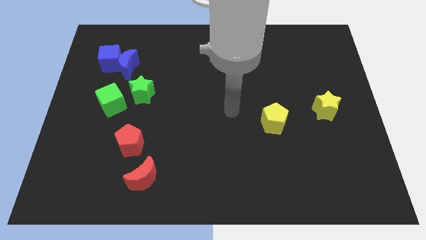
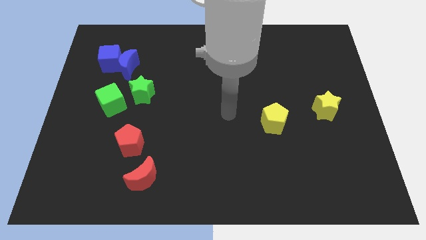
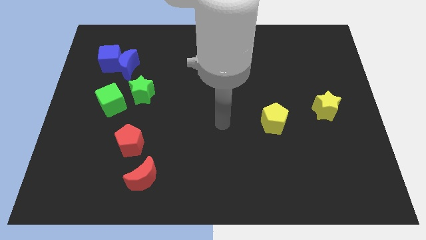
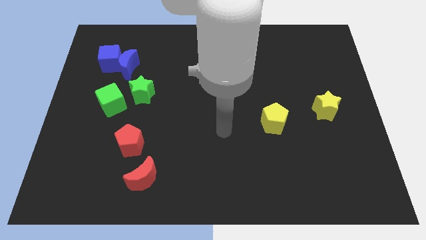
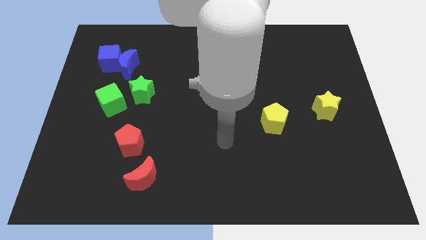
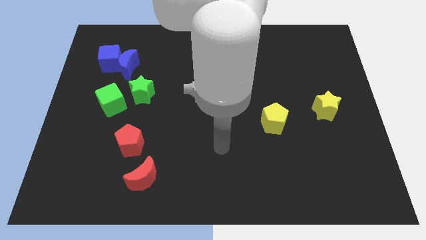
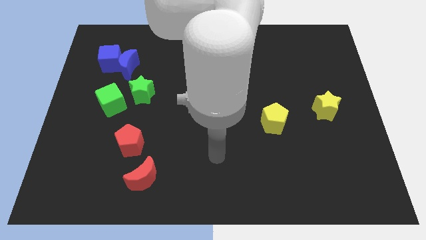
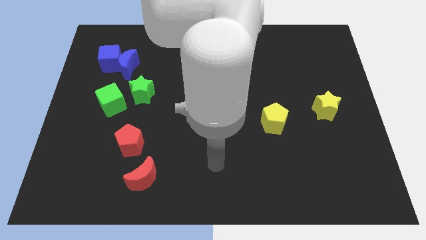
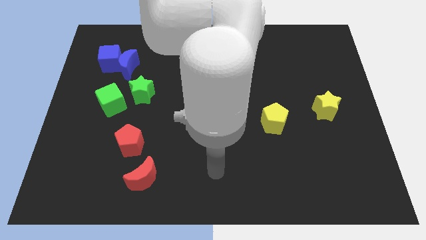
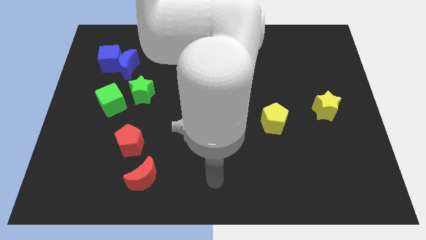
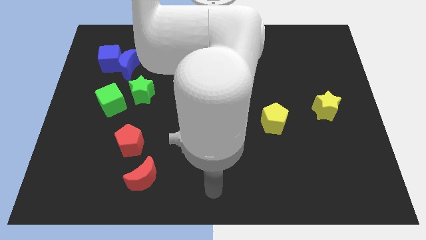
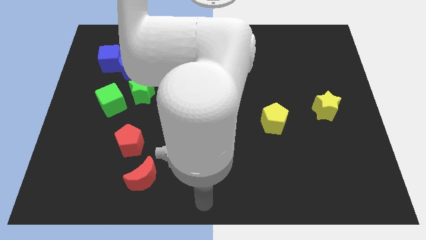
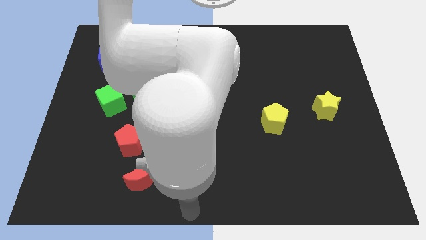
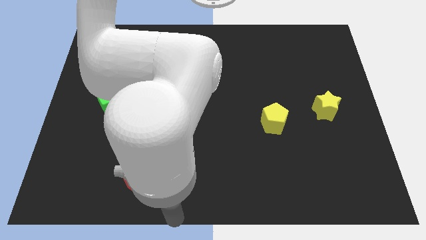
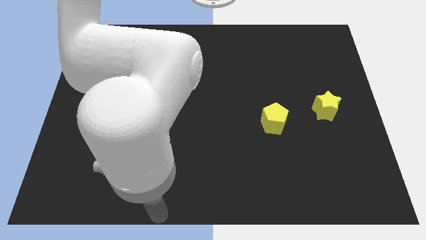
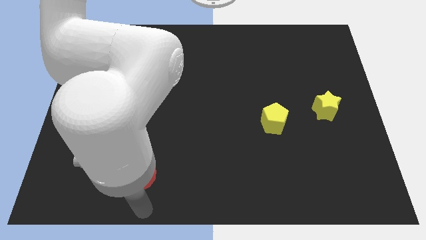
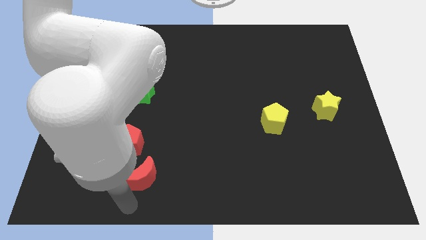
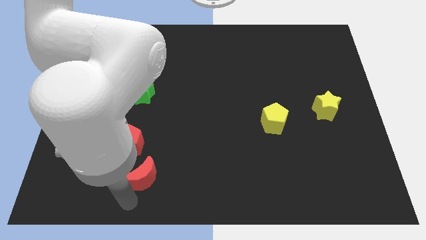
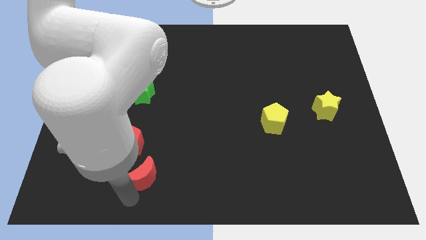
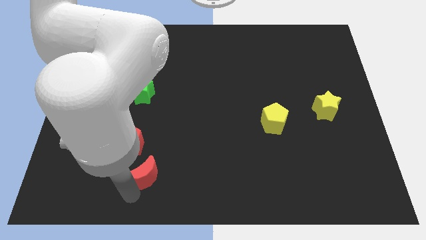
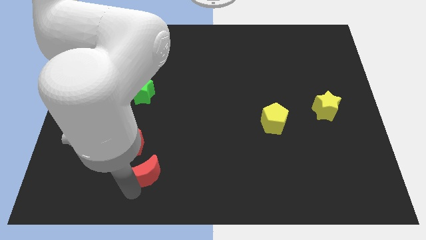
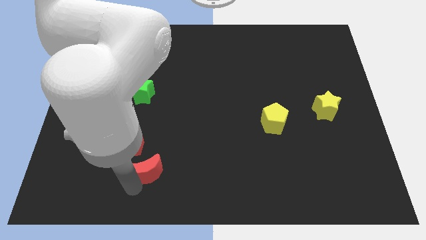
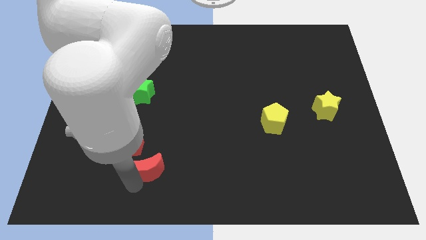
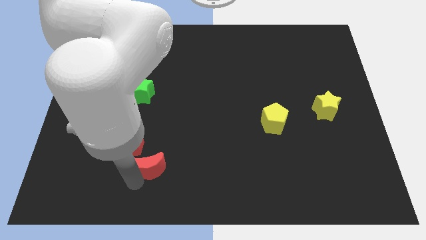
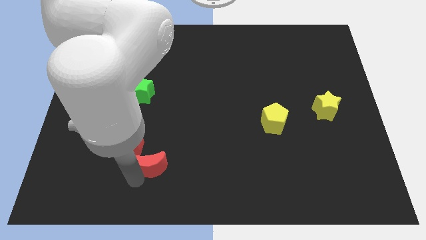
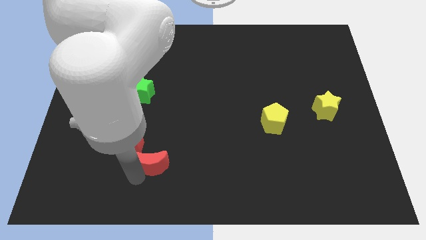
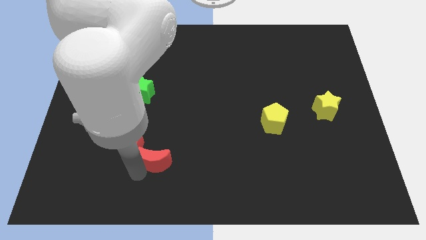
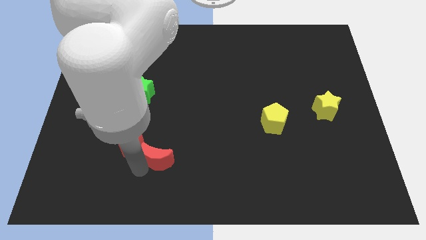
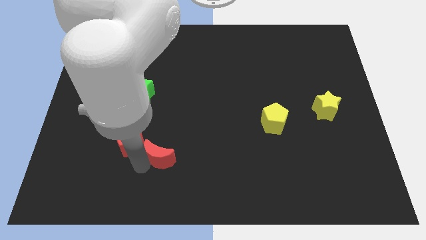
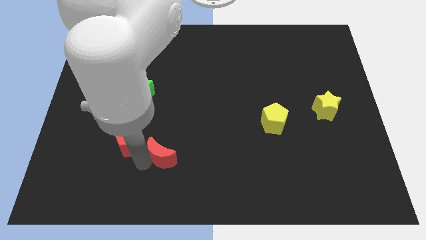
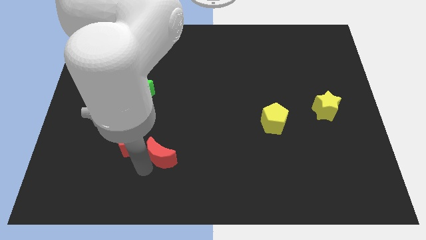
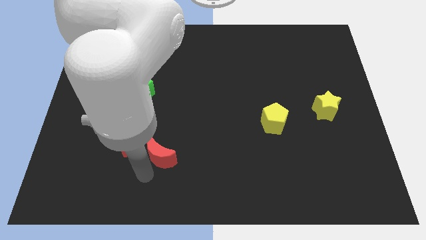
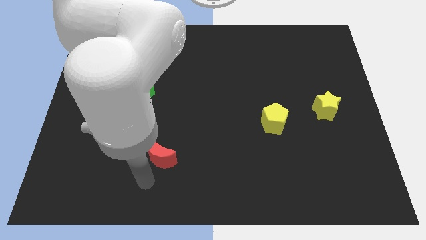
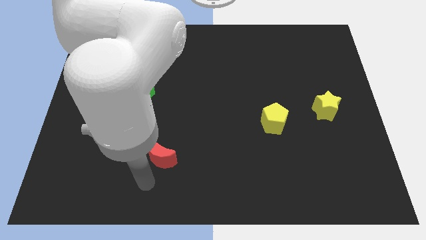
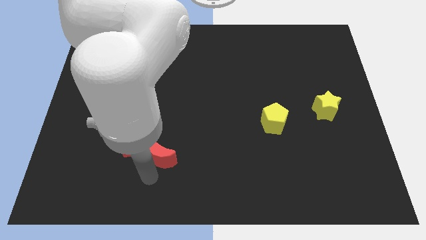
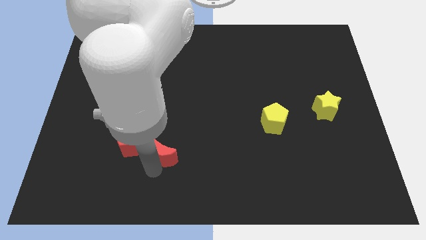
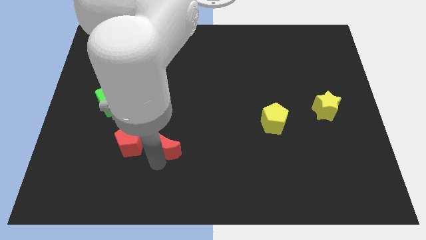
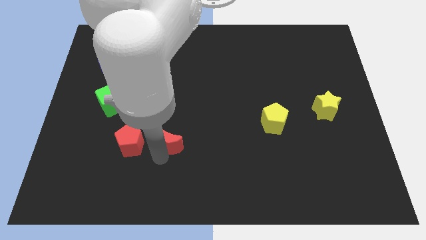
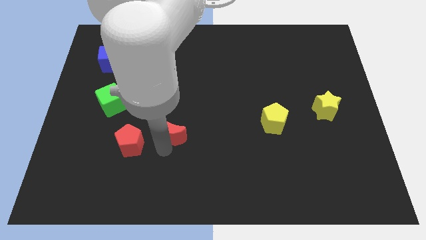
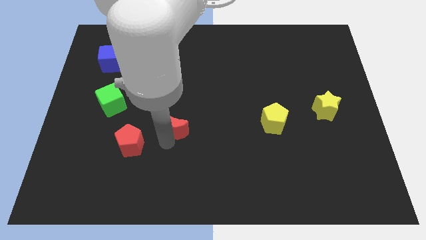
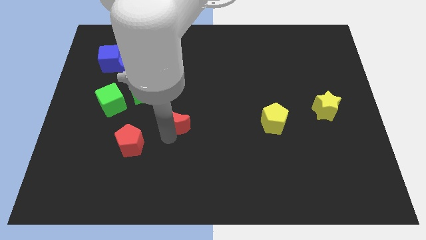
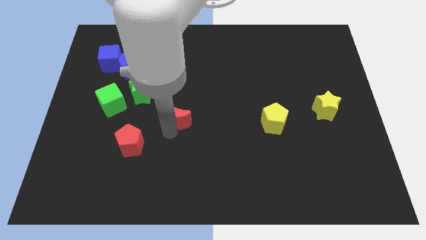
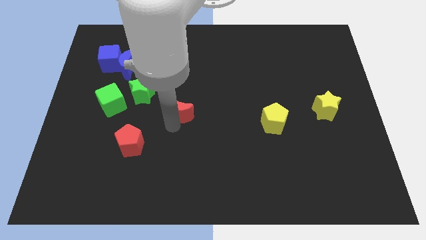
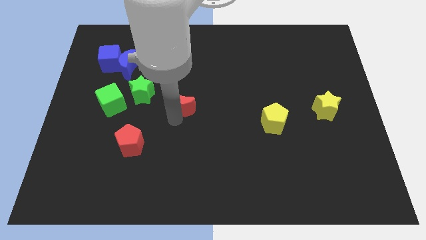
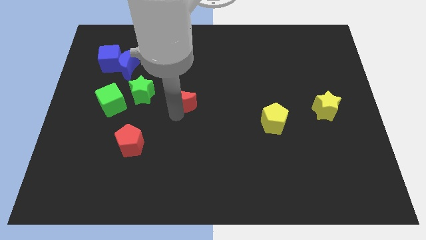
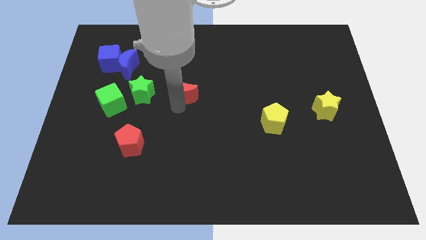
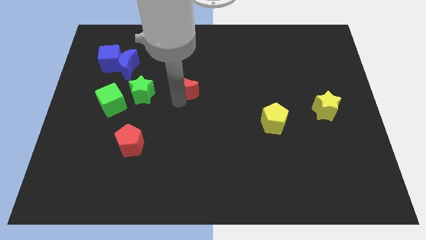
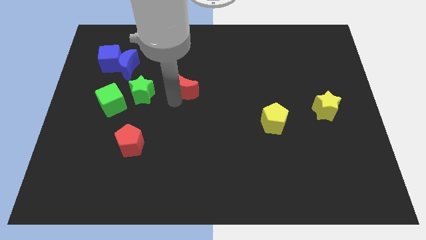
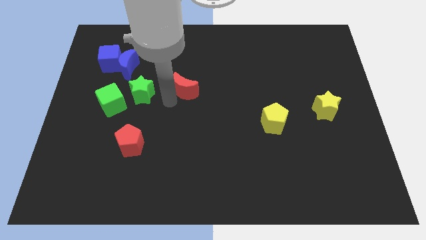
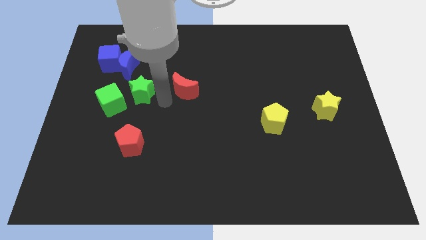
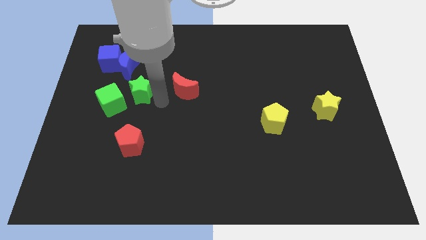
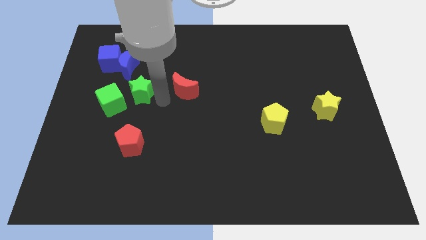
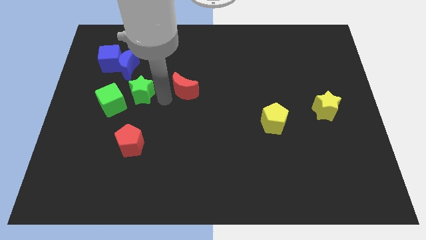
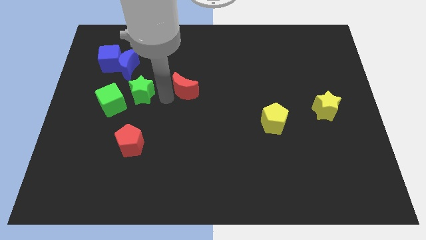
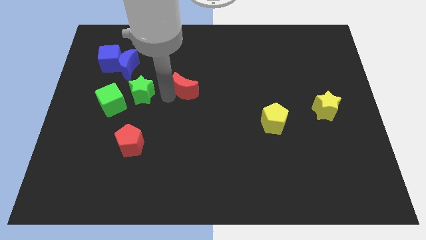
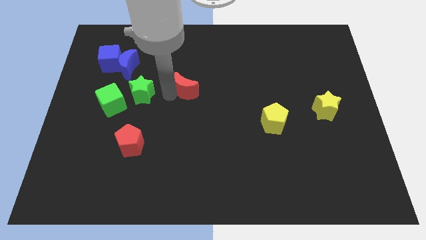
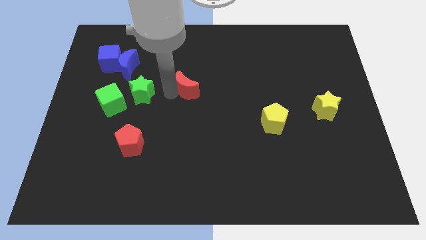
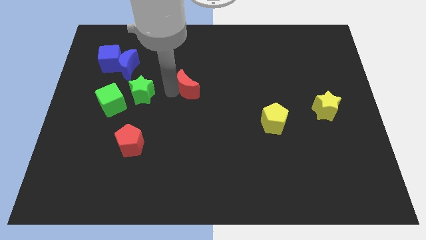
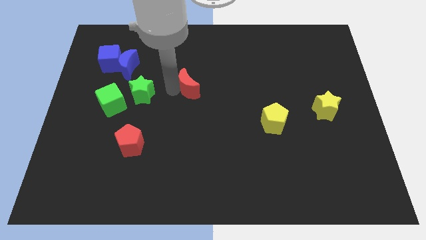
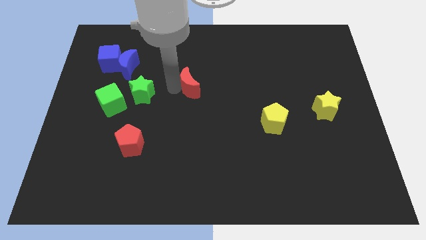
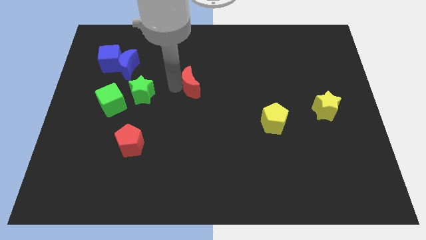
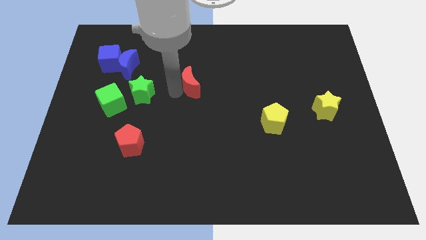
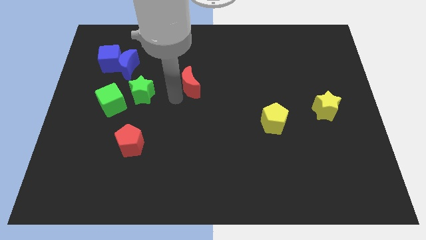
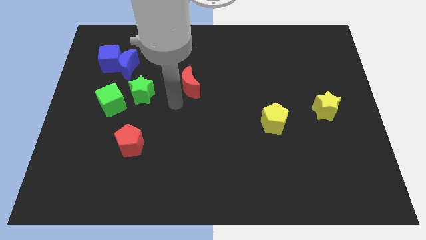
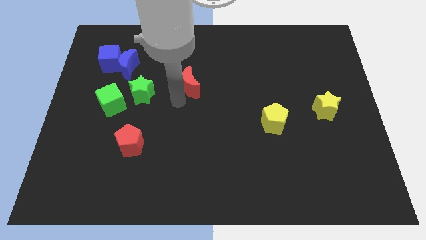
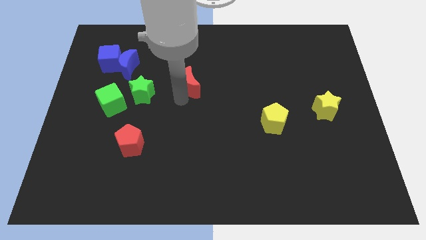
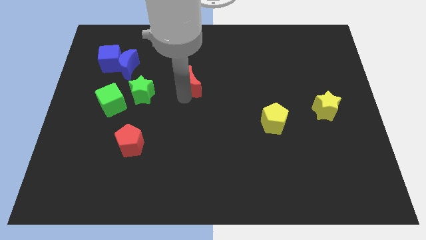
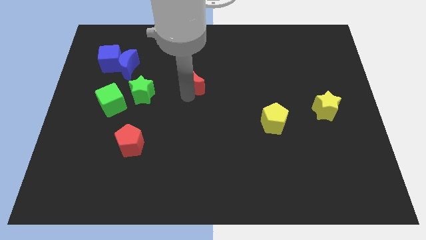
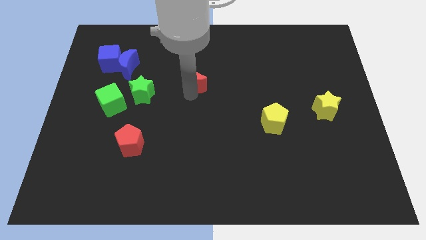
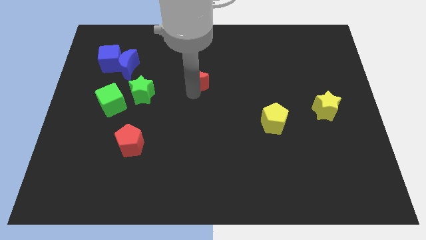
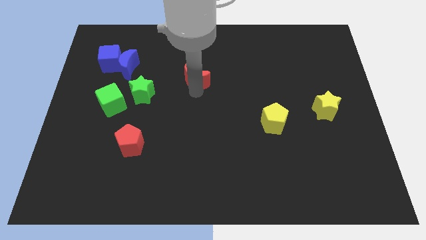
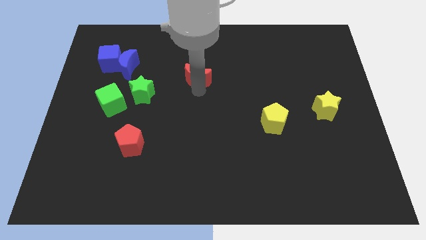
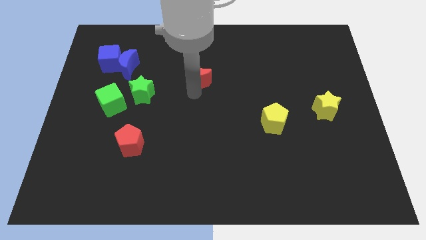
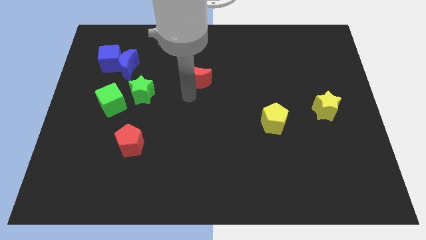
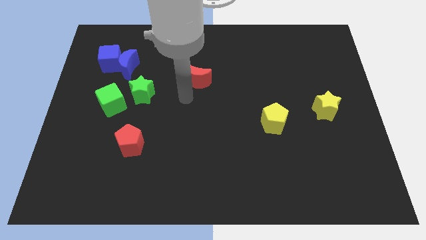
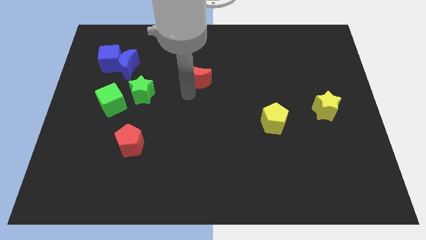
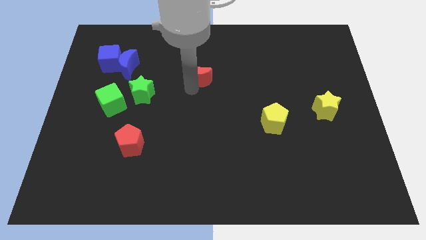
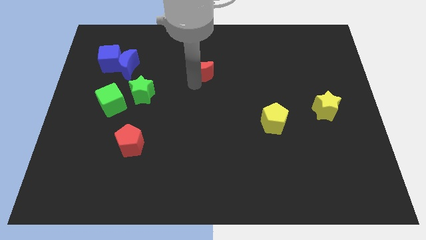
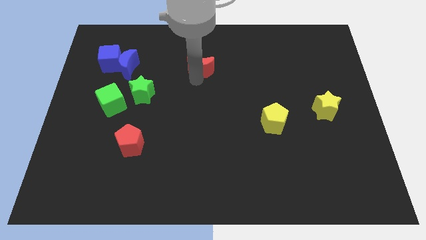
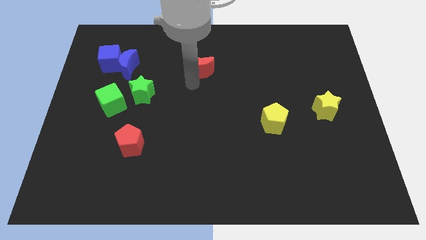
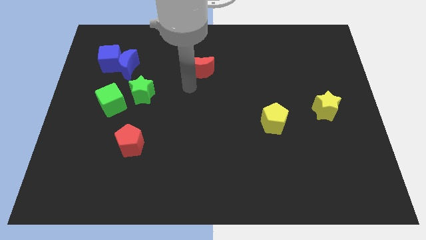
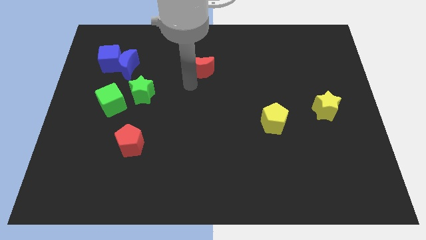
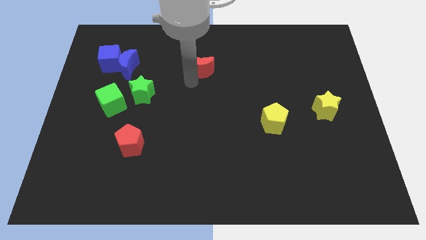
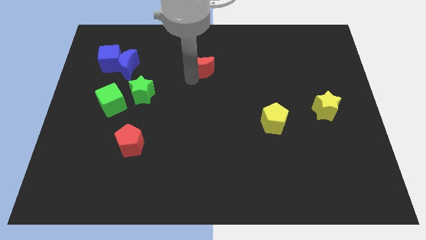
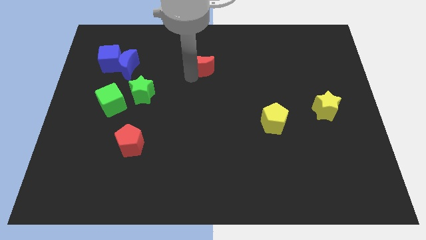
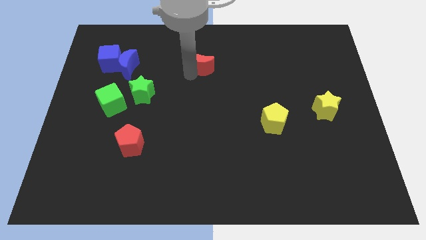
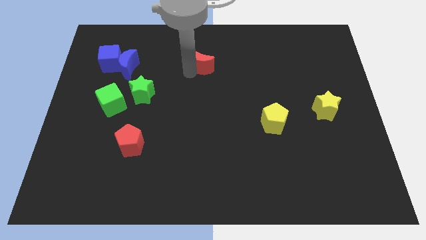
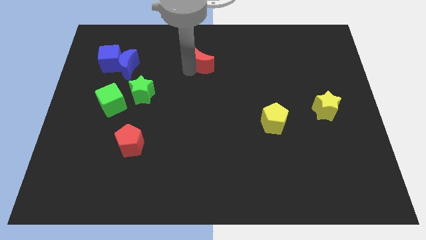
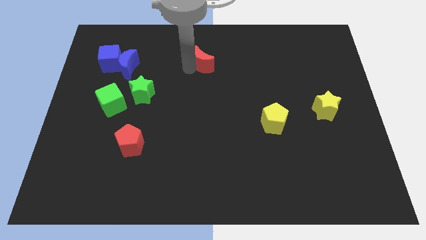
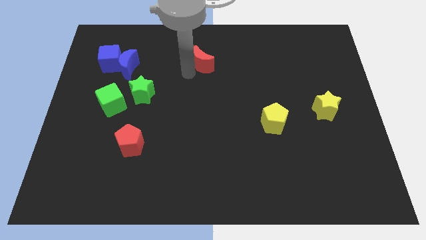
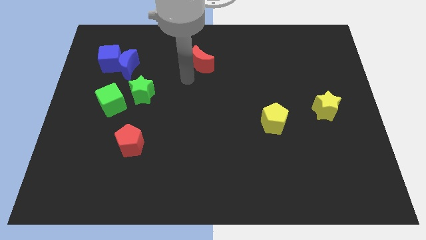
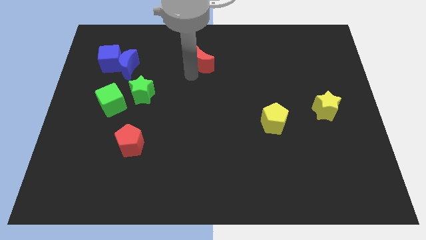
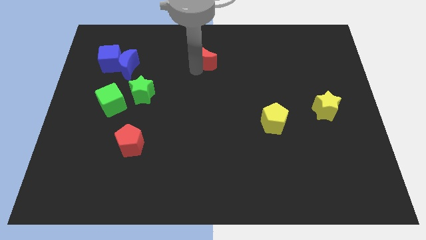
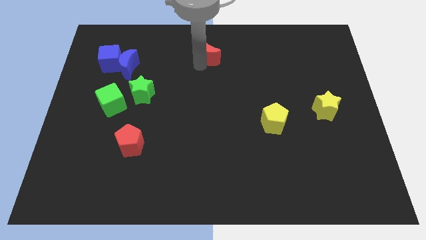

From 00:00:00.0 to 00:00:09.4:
put the red moon to the top
